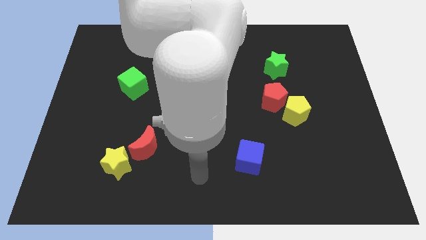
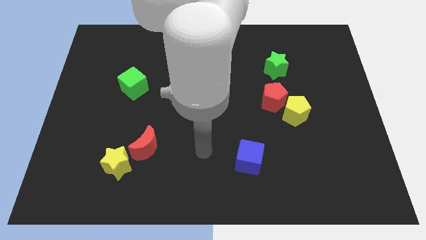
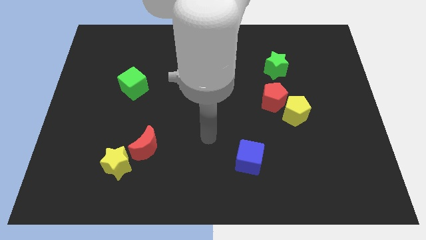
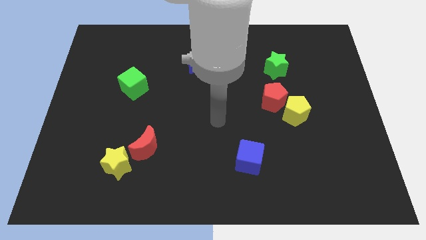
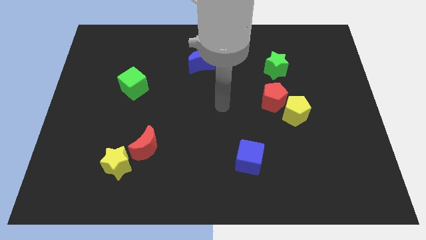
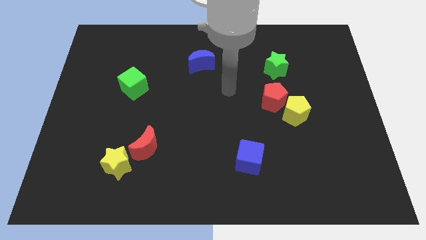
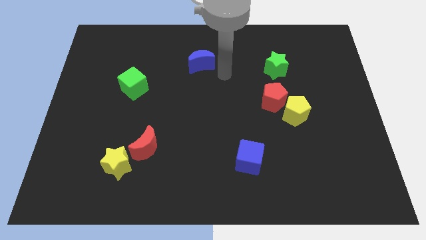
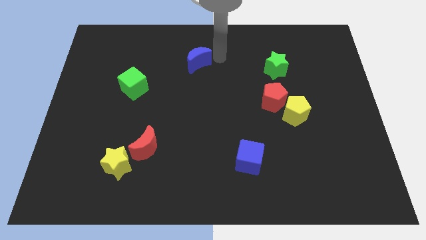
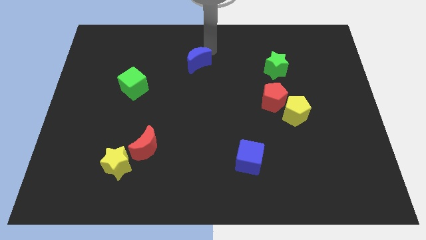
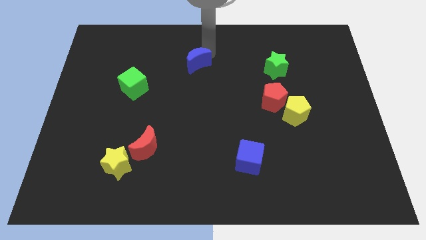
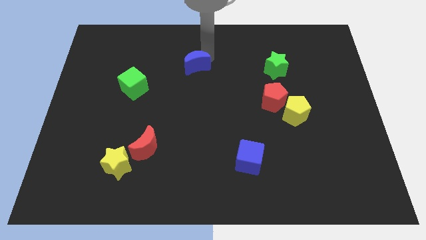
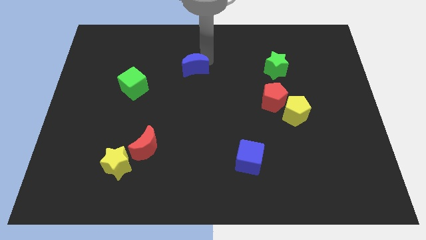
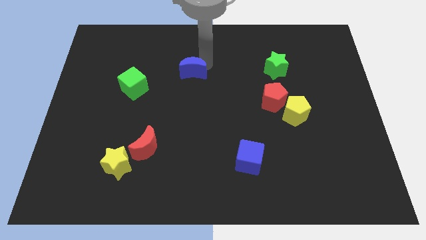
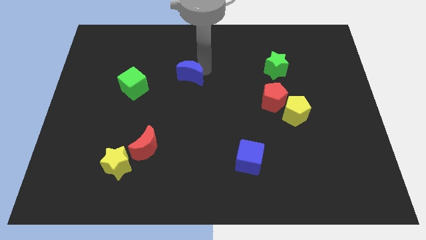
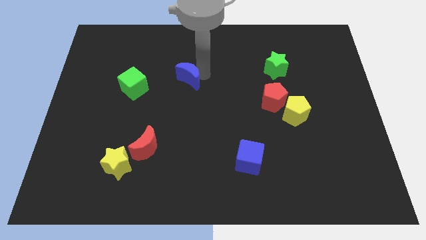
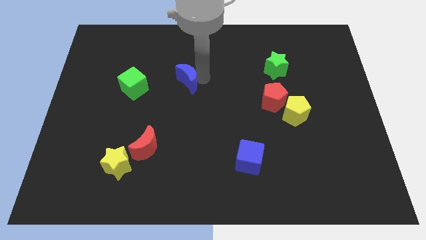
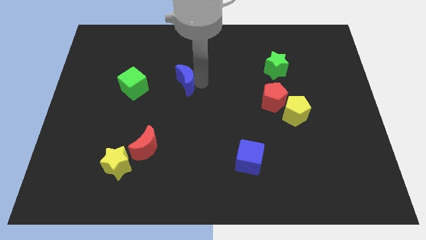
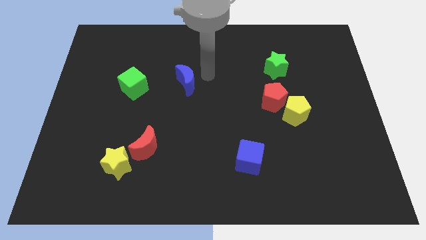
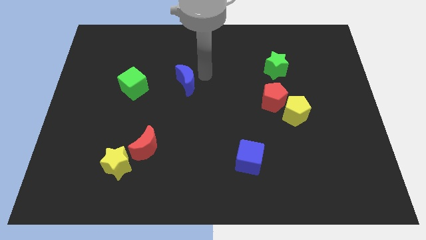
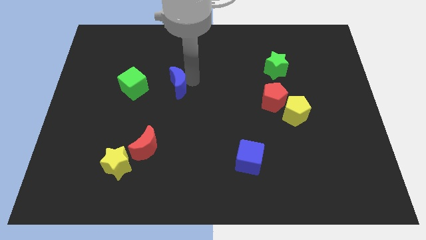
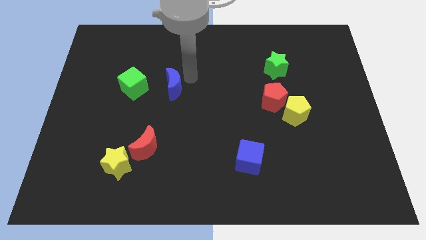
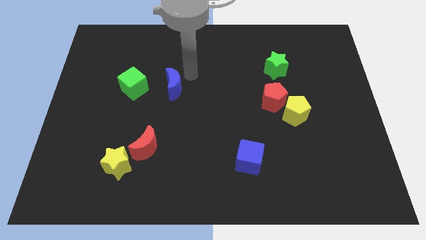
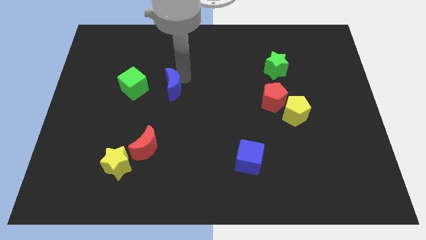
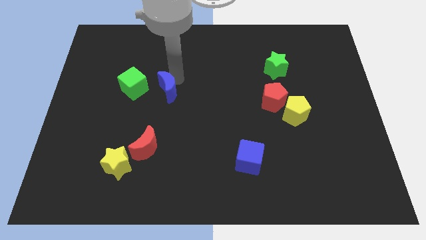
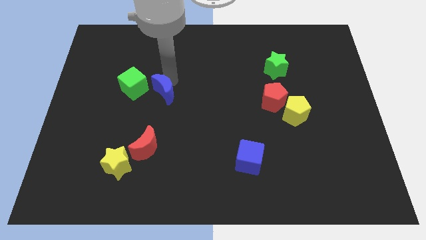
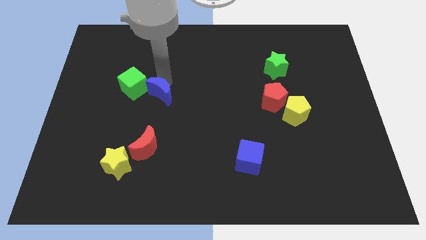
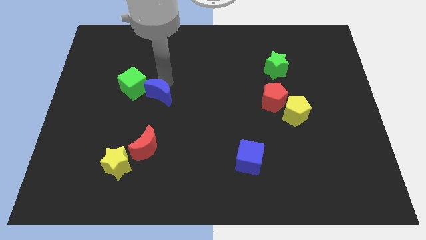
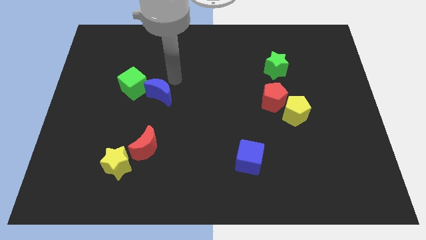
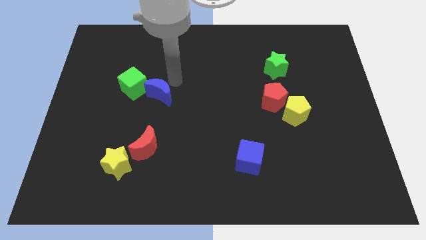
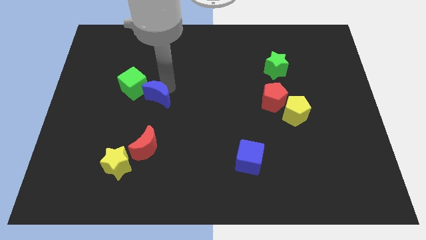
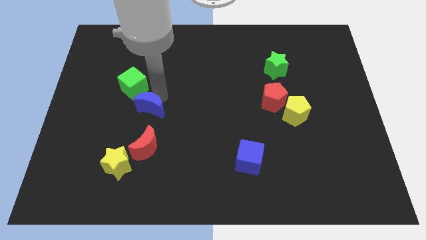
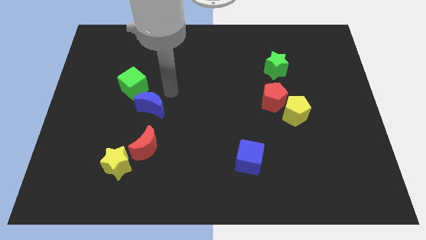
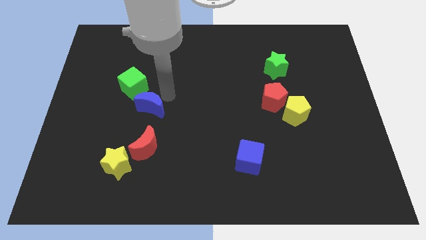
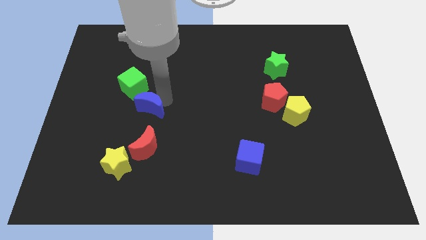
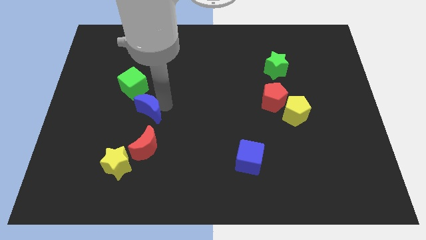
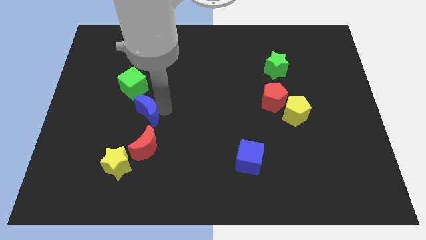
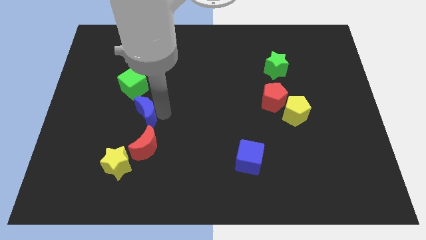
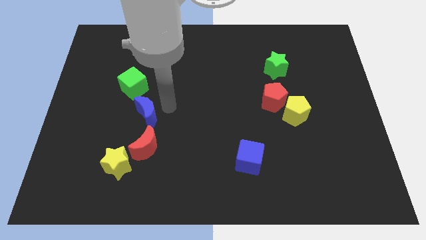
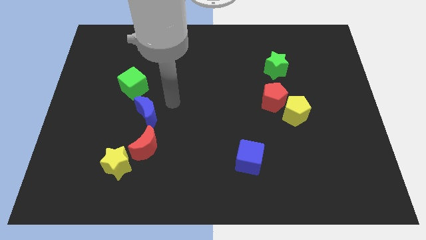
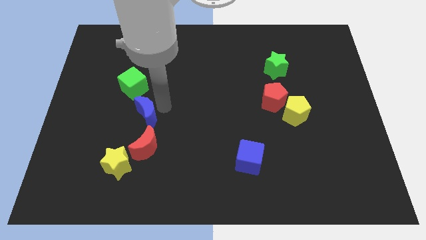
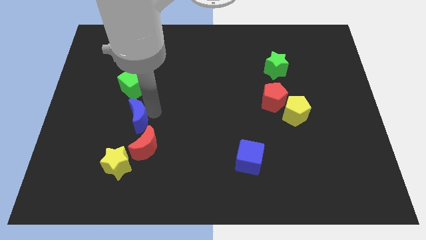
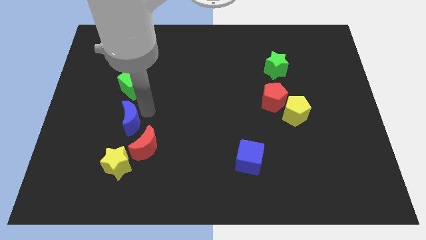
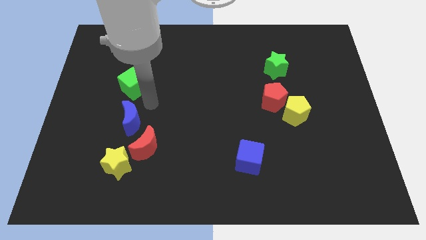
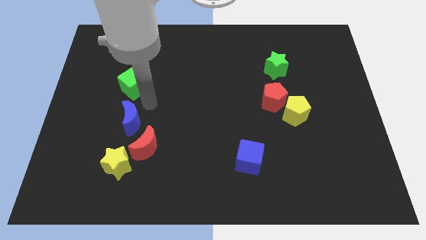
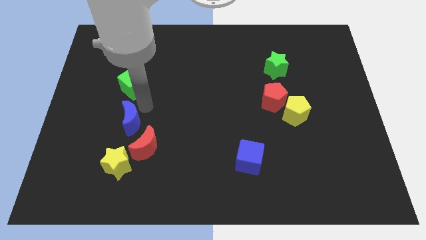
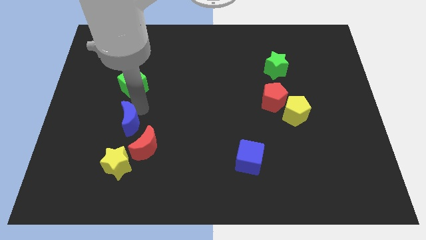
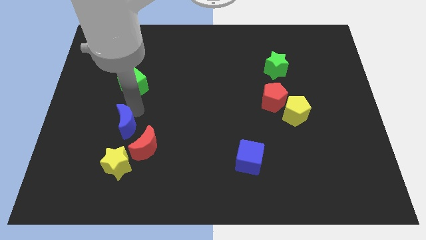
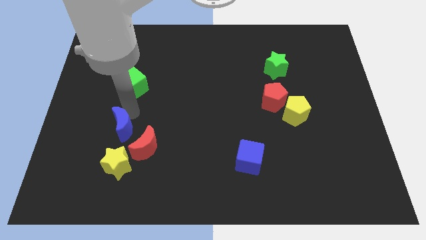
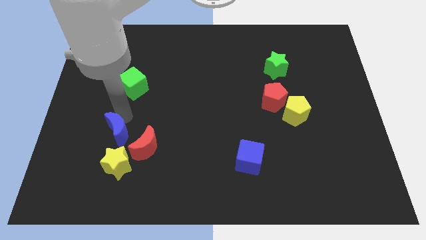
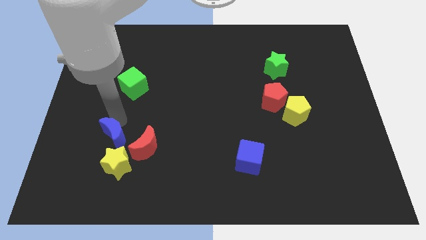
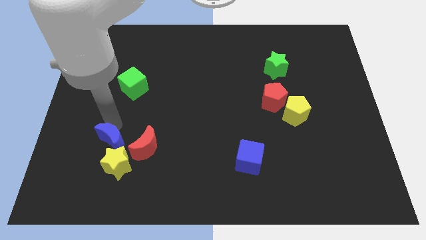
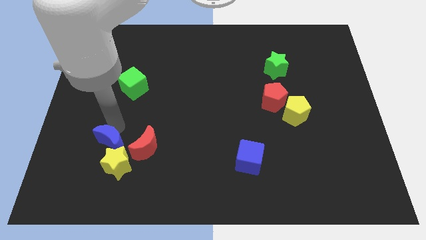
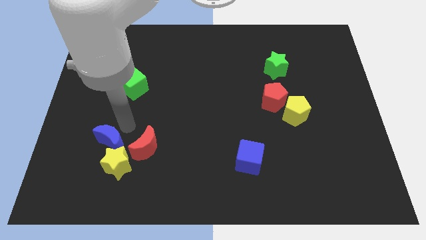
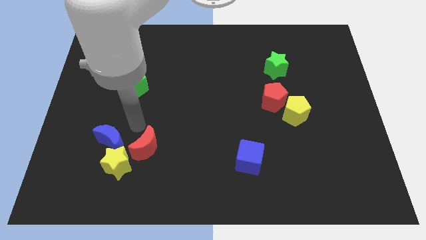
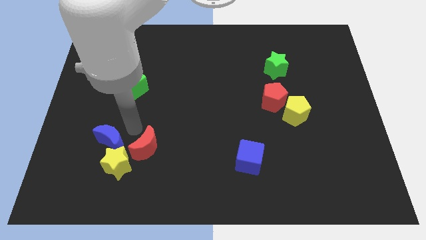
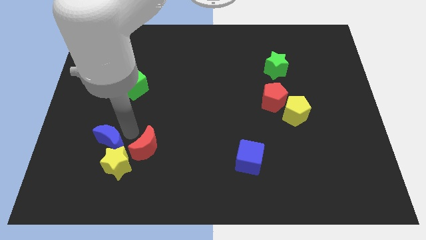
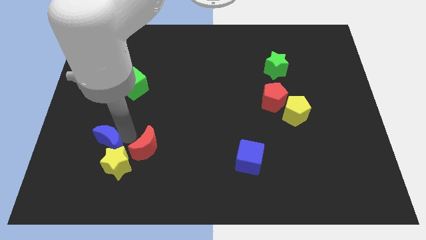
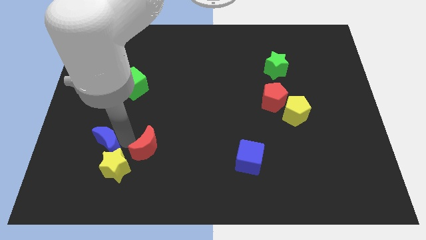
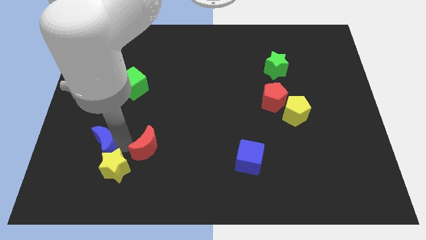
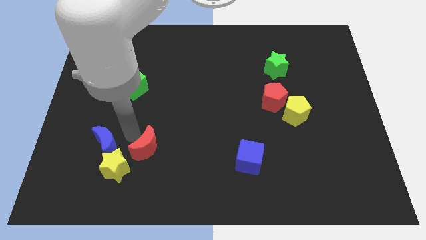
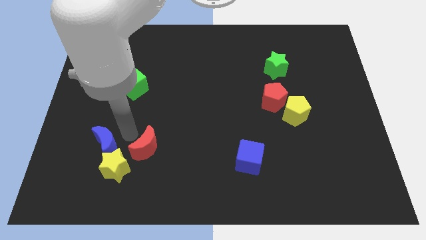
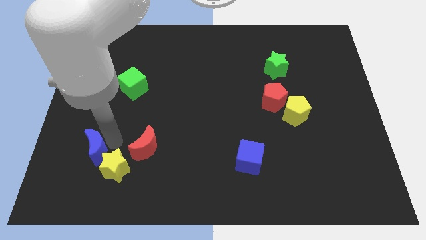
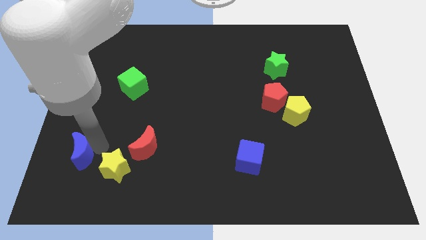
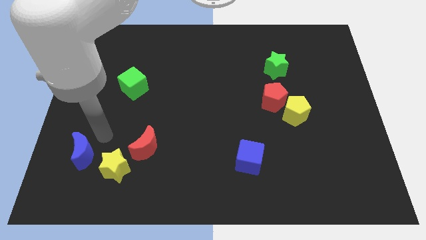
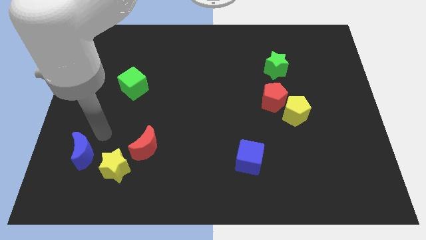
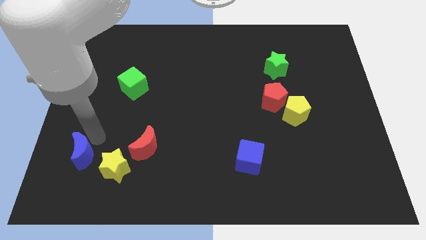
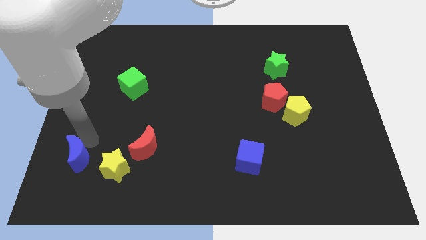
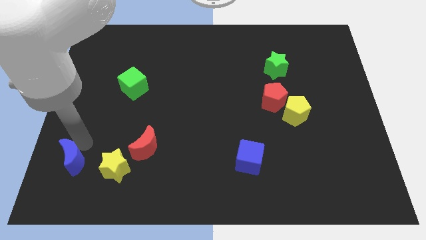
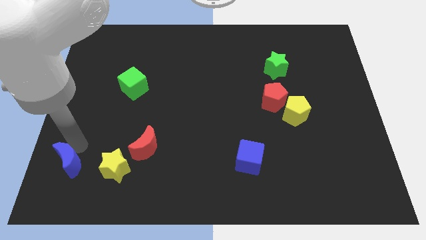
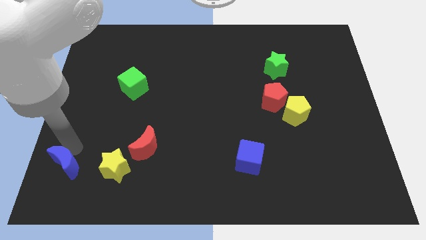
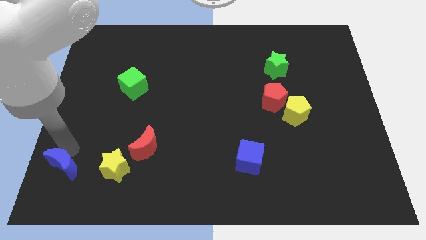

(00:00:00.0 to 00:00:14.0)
move the blue moon to the bottom left

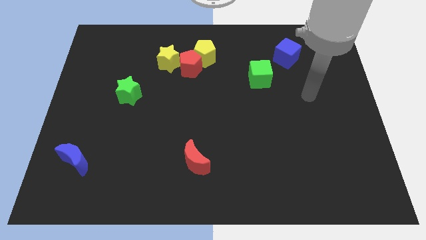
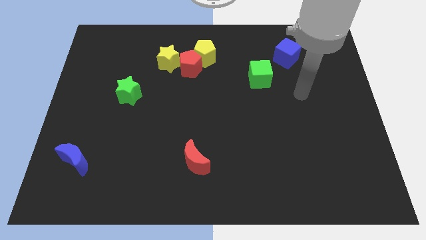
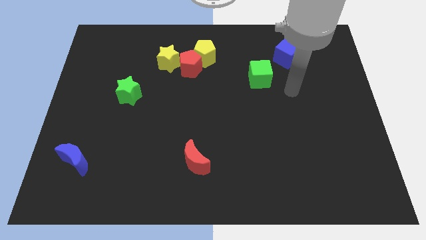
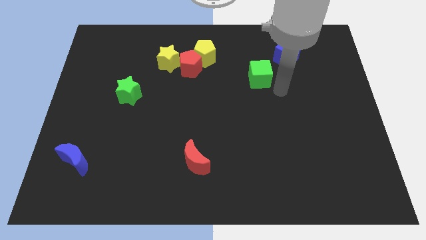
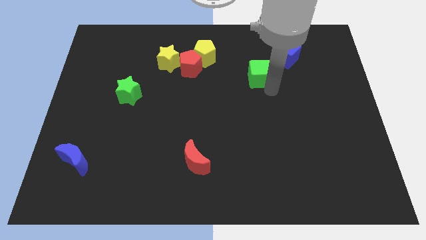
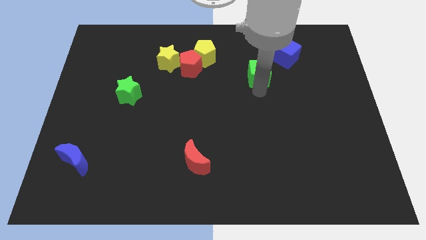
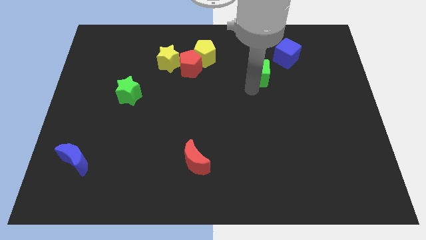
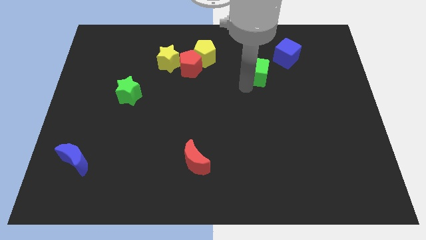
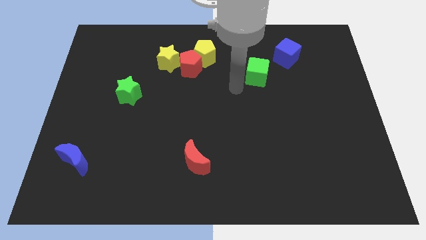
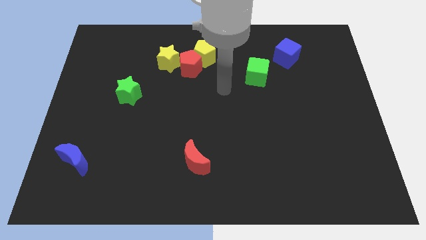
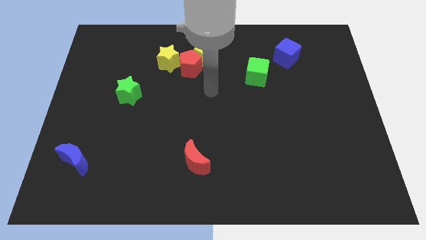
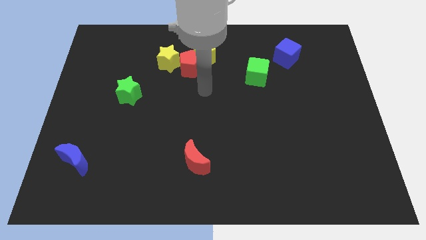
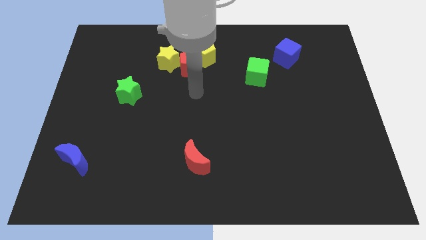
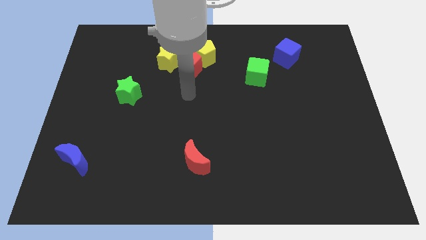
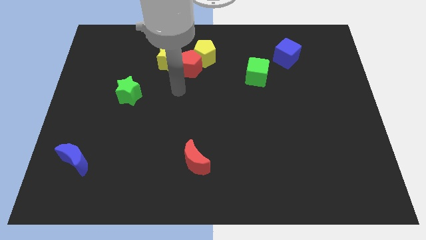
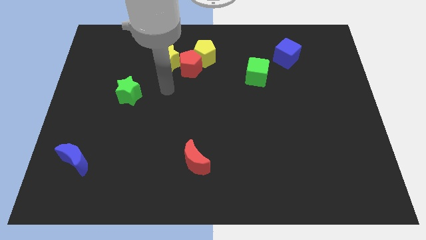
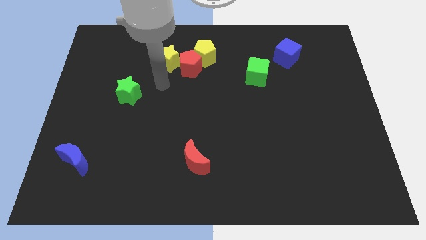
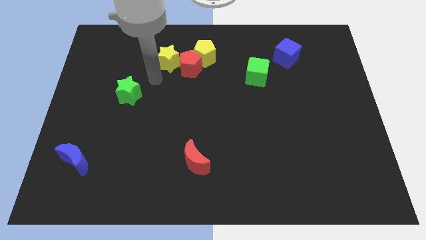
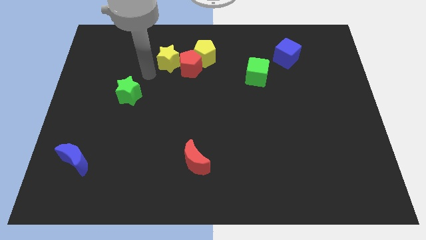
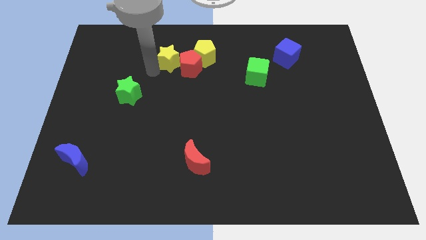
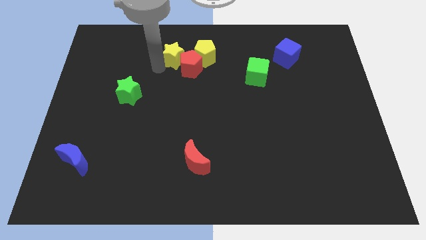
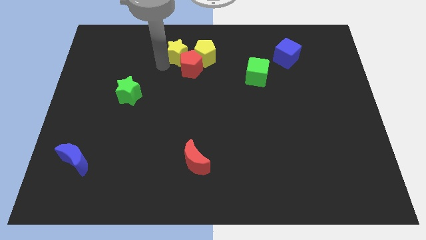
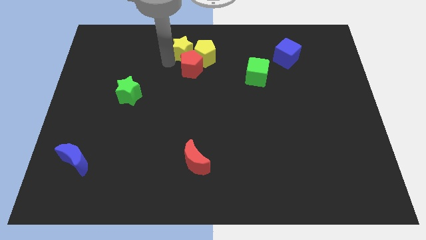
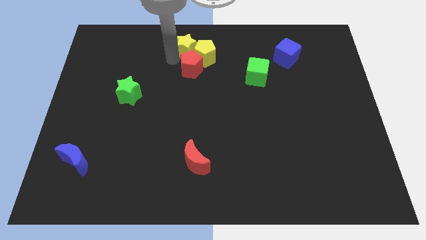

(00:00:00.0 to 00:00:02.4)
push the yellow star to the top side
